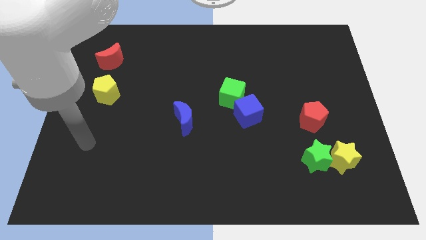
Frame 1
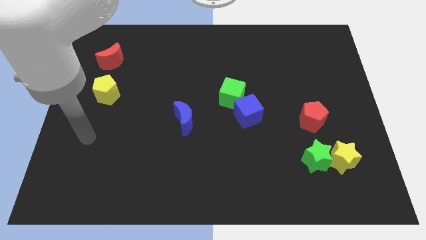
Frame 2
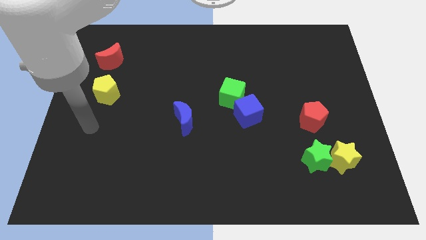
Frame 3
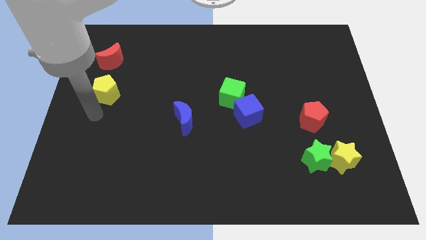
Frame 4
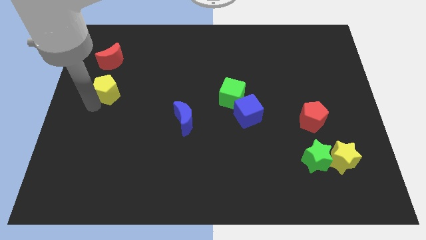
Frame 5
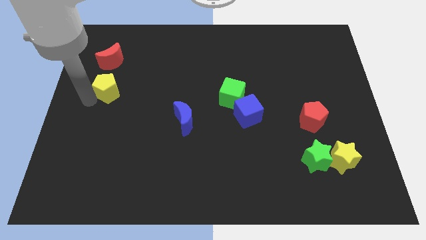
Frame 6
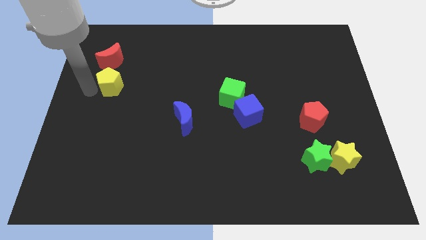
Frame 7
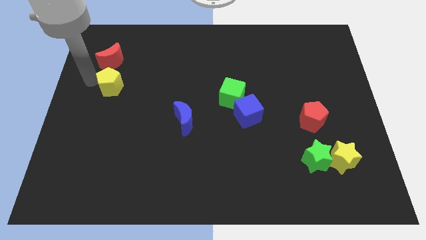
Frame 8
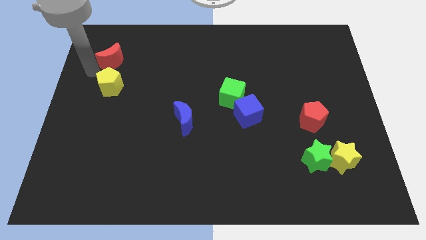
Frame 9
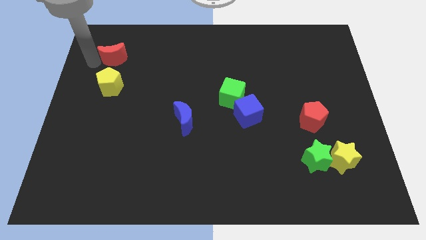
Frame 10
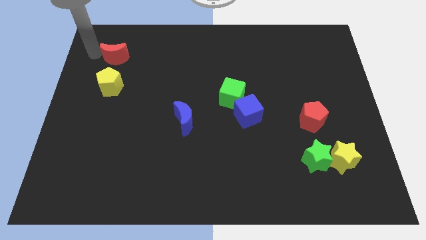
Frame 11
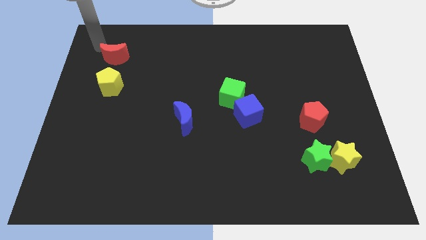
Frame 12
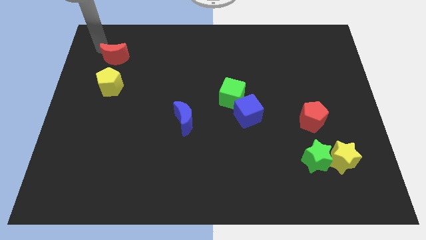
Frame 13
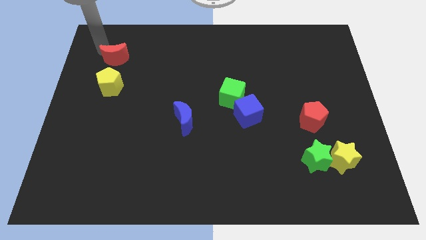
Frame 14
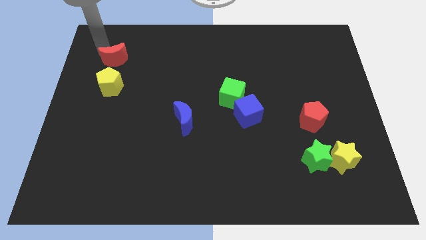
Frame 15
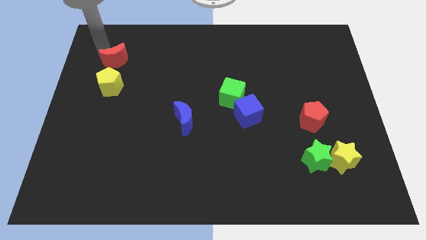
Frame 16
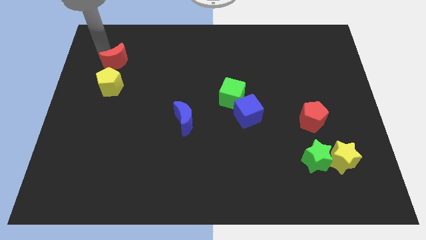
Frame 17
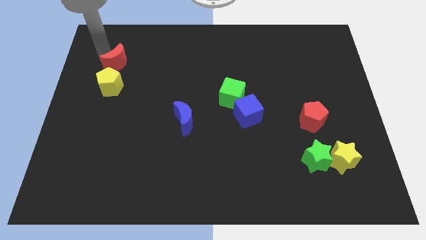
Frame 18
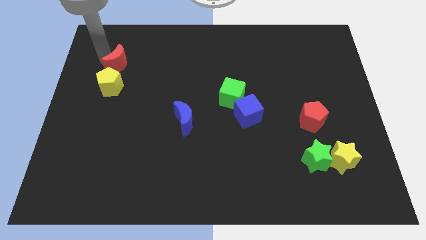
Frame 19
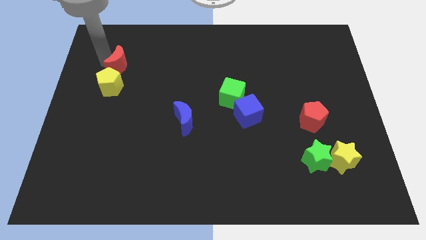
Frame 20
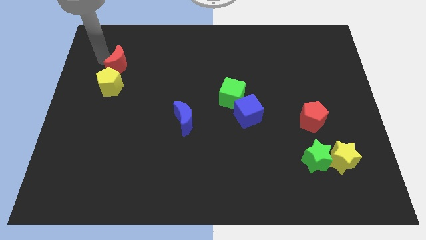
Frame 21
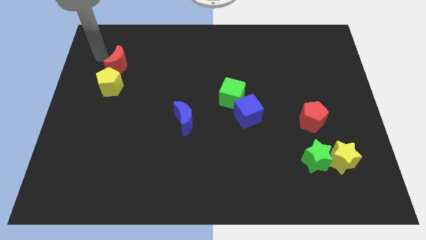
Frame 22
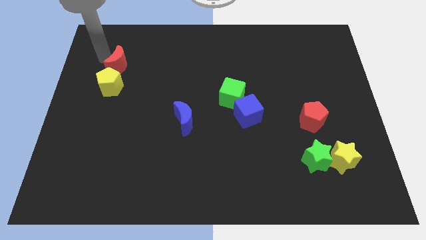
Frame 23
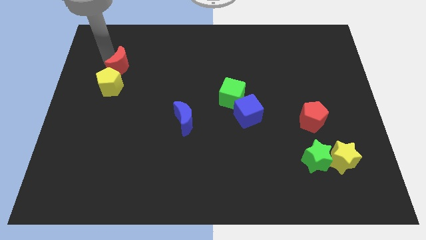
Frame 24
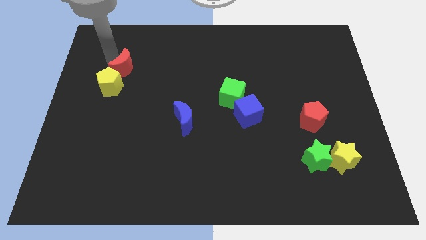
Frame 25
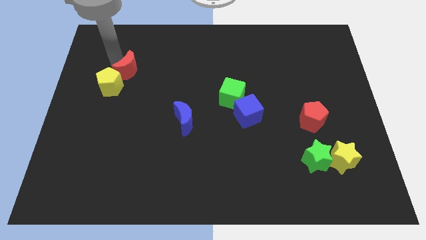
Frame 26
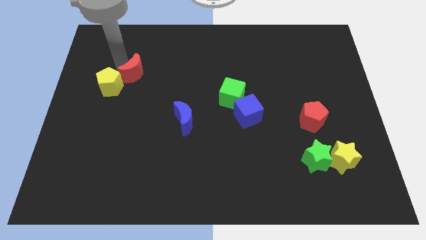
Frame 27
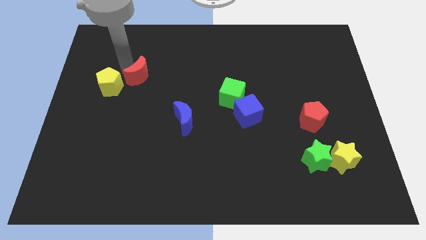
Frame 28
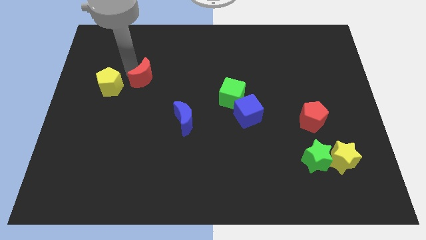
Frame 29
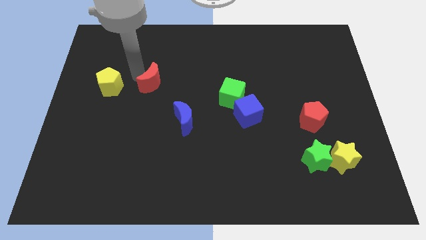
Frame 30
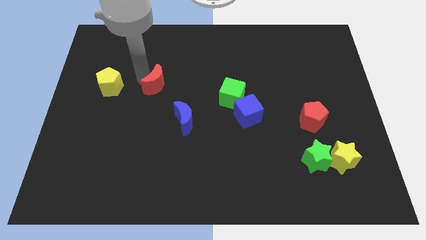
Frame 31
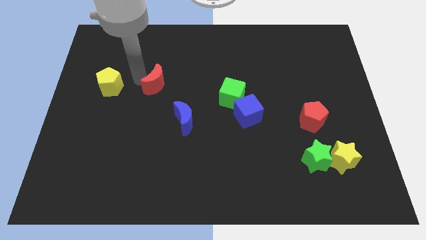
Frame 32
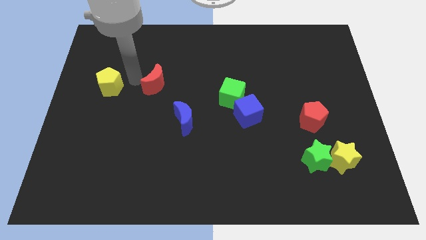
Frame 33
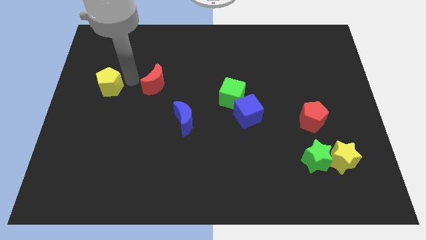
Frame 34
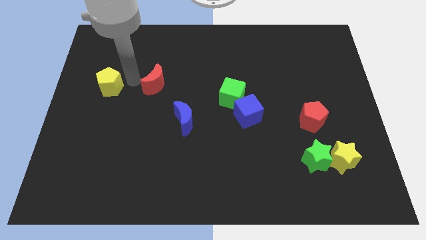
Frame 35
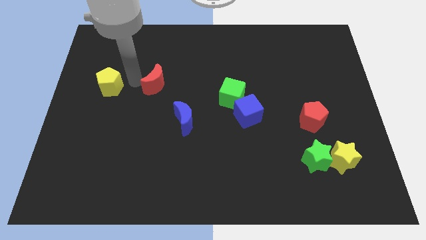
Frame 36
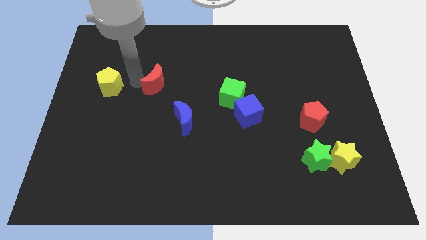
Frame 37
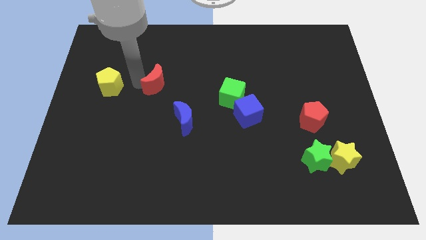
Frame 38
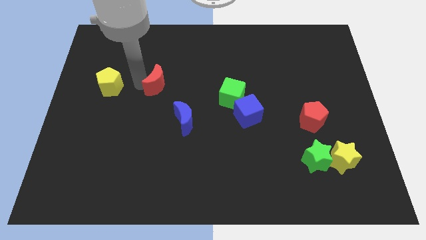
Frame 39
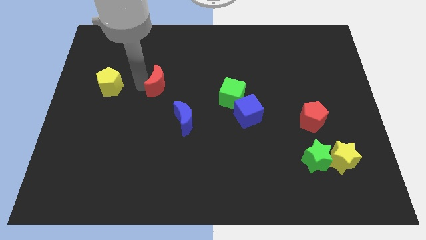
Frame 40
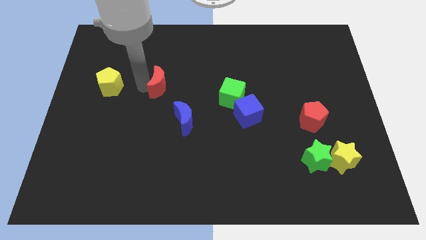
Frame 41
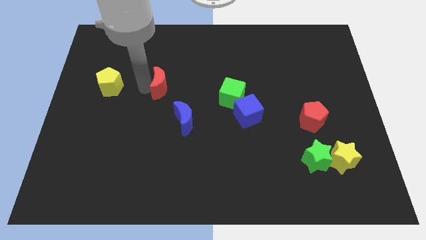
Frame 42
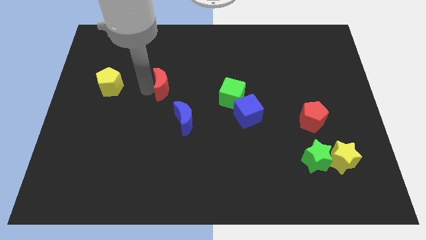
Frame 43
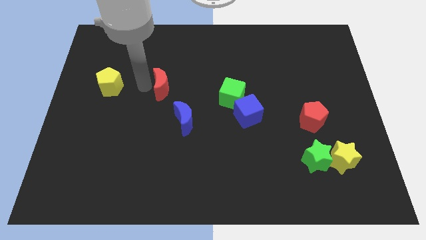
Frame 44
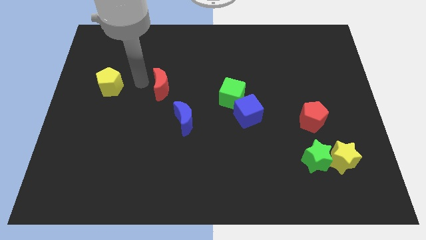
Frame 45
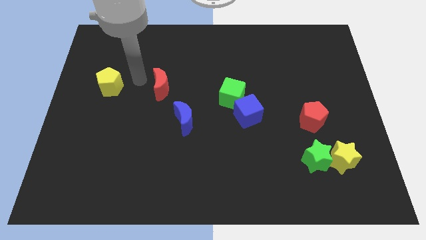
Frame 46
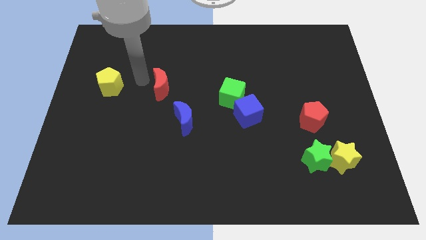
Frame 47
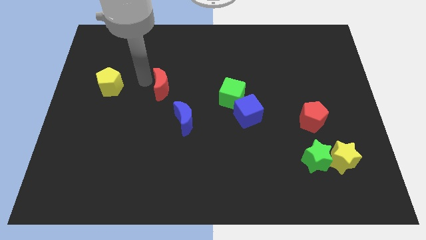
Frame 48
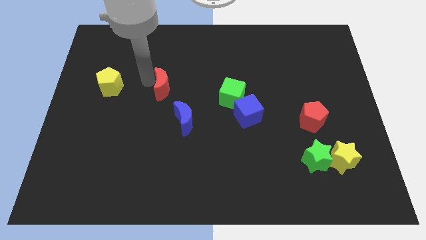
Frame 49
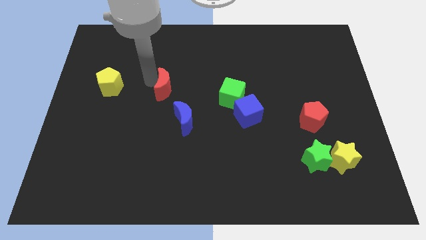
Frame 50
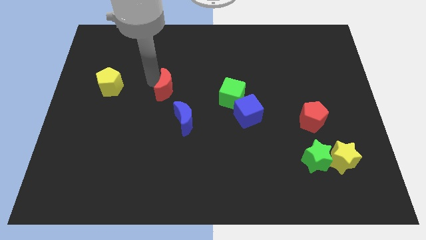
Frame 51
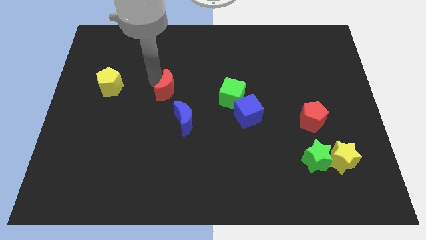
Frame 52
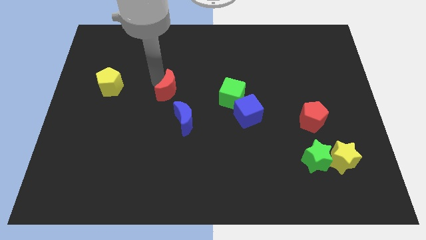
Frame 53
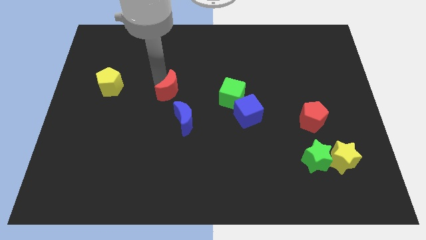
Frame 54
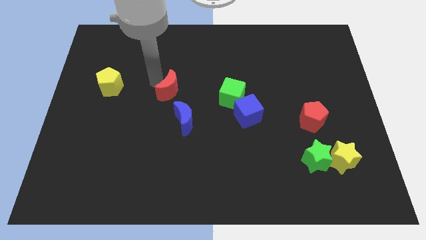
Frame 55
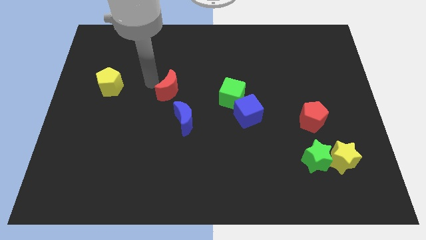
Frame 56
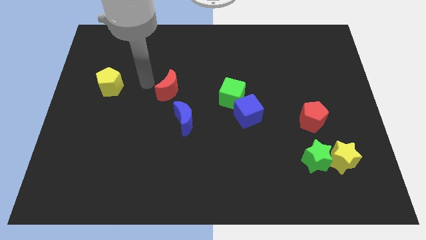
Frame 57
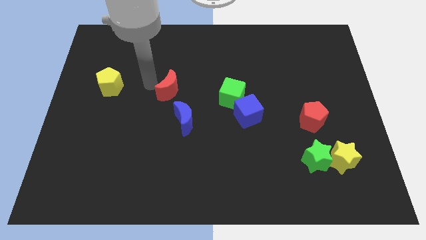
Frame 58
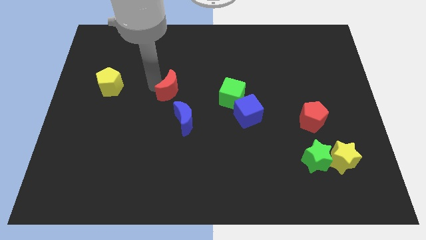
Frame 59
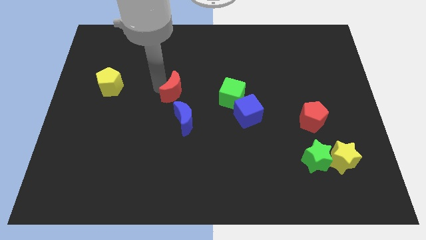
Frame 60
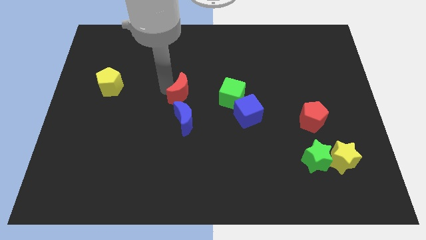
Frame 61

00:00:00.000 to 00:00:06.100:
move the red moon downwards and then to the right

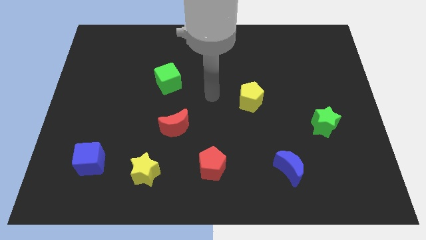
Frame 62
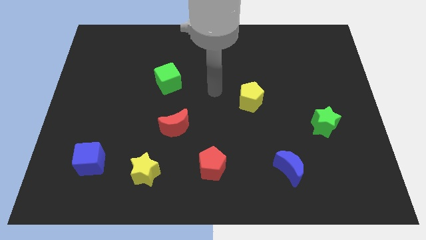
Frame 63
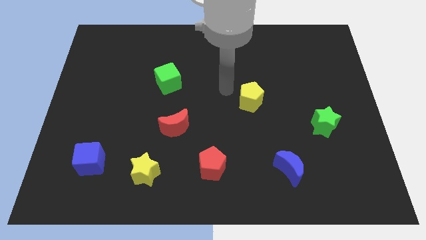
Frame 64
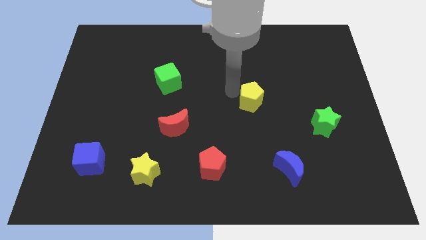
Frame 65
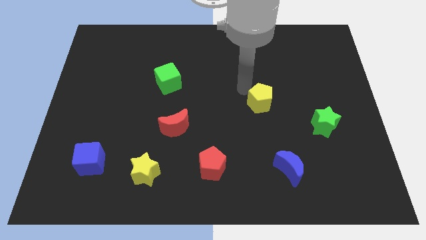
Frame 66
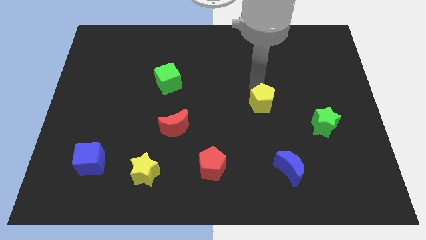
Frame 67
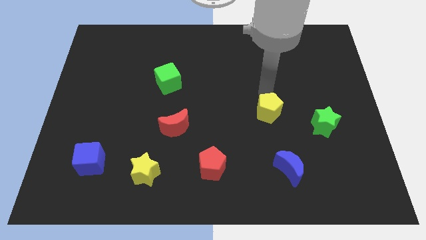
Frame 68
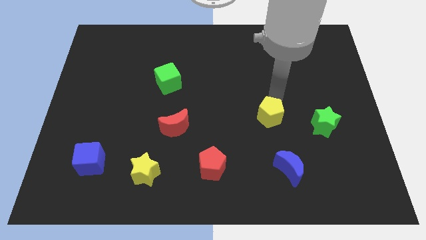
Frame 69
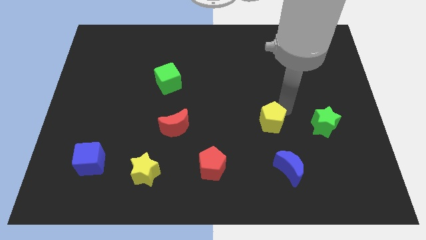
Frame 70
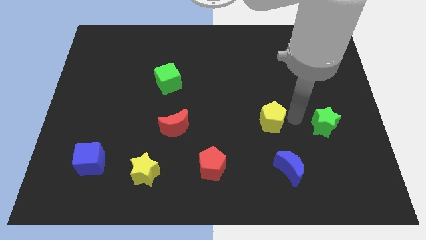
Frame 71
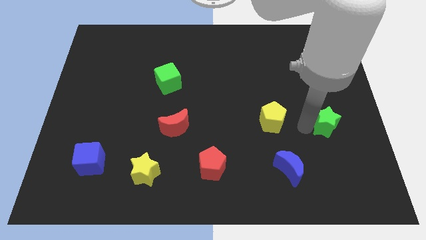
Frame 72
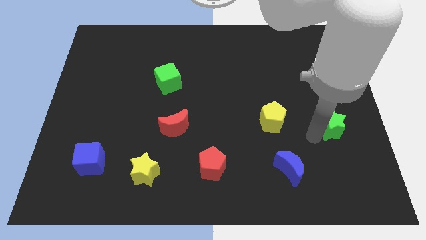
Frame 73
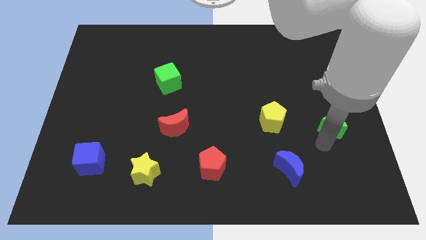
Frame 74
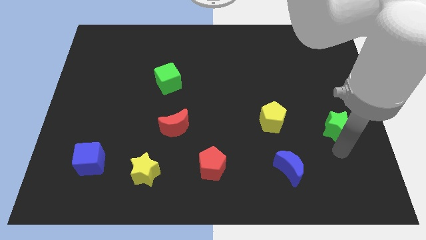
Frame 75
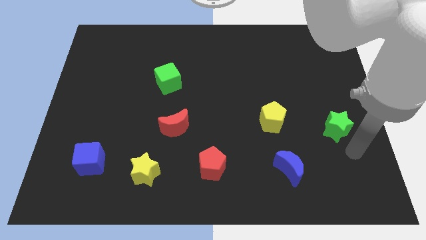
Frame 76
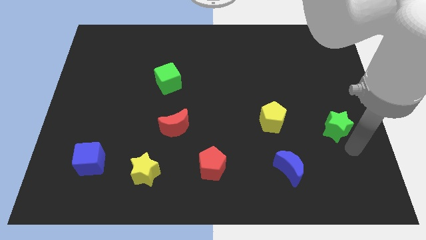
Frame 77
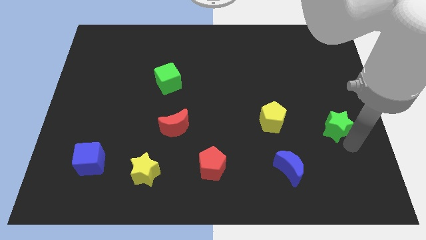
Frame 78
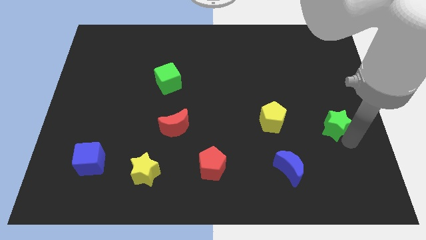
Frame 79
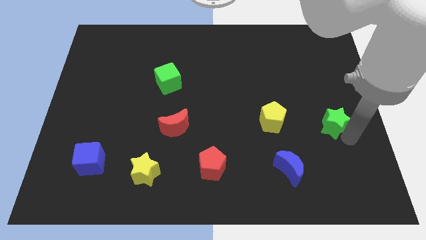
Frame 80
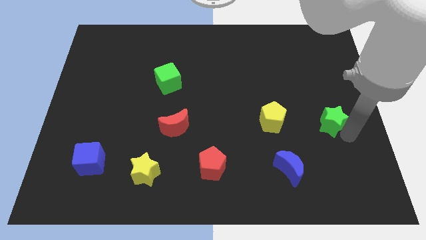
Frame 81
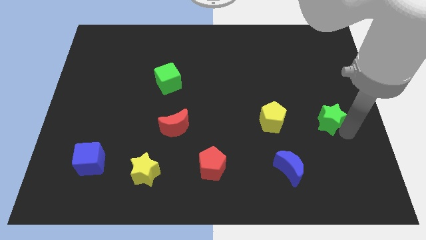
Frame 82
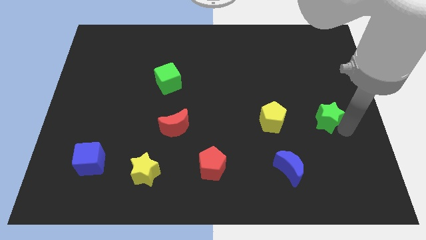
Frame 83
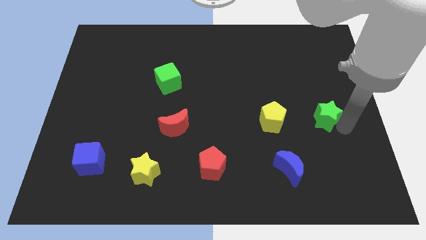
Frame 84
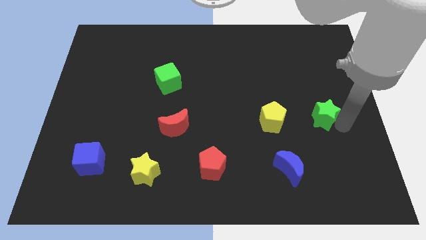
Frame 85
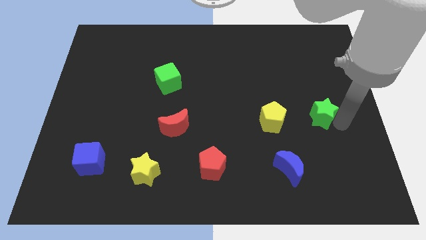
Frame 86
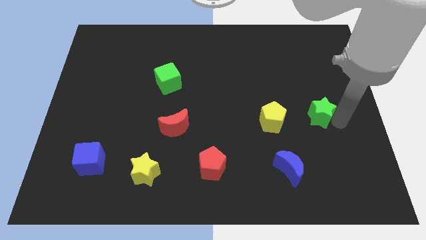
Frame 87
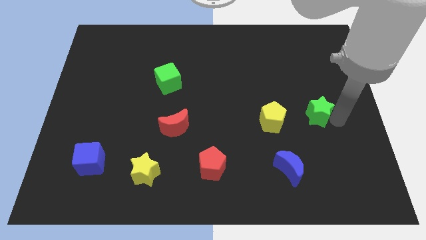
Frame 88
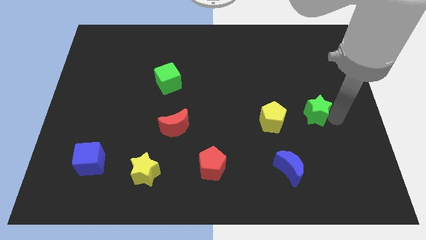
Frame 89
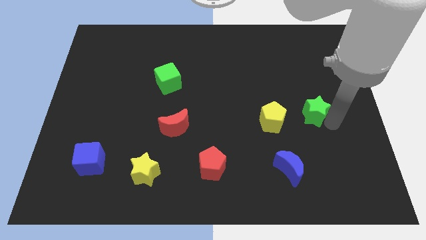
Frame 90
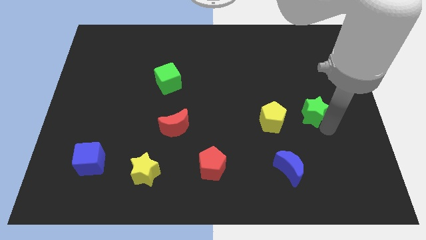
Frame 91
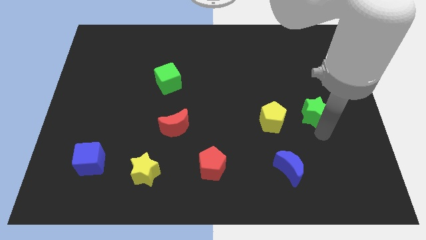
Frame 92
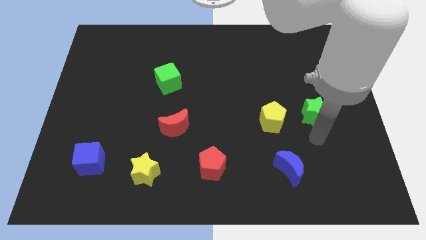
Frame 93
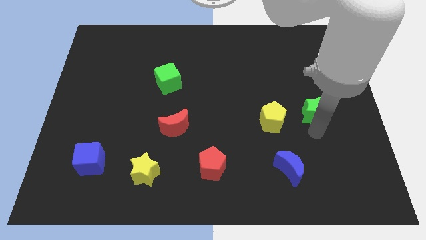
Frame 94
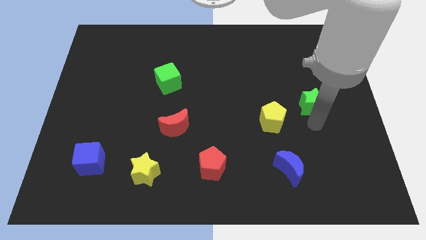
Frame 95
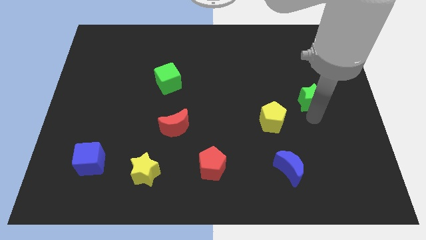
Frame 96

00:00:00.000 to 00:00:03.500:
slide the green star up a bit
